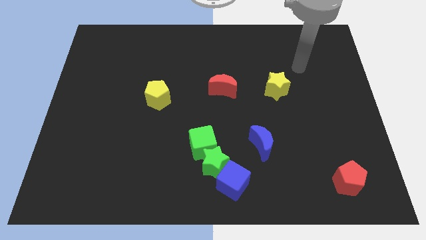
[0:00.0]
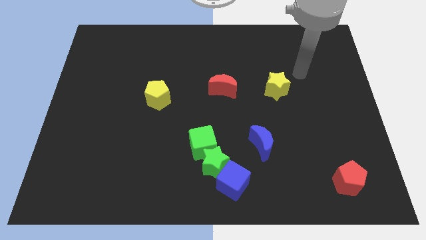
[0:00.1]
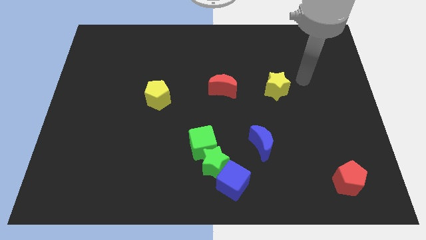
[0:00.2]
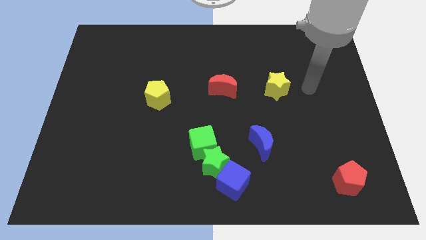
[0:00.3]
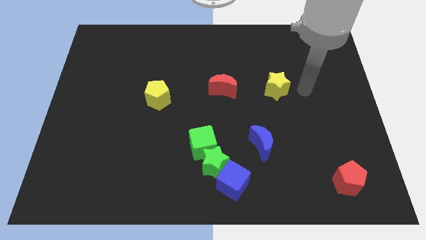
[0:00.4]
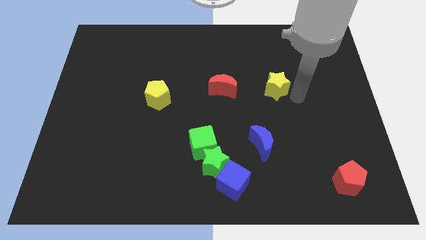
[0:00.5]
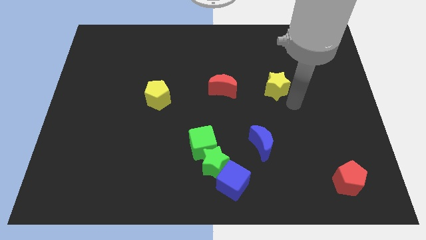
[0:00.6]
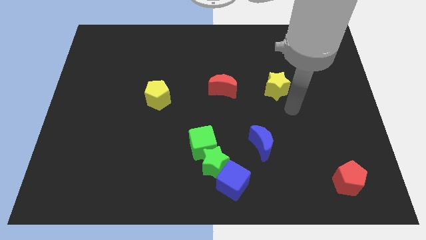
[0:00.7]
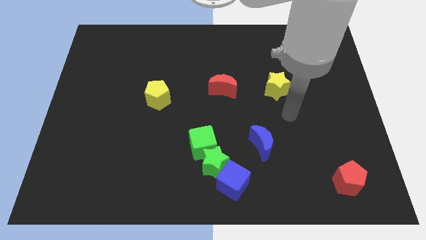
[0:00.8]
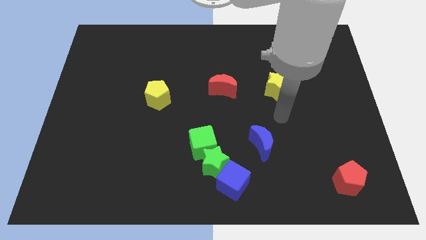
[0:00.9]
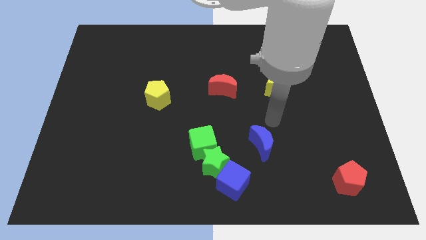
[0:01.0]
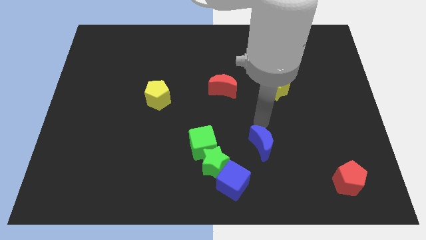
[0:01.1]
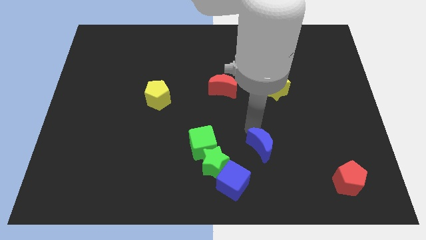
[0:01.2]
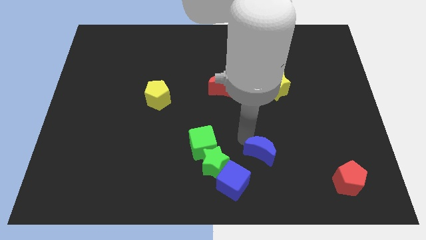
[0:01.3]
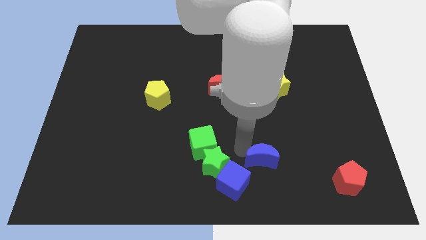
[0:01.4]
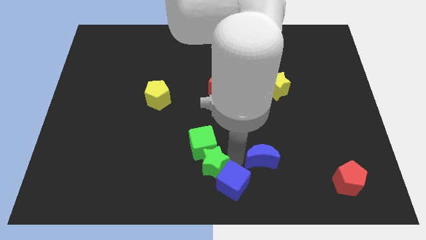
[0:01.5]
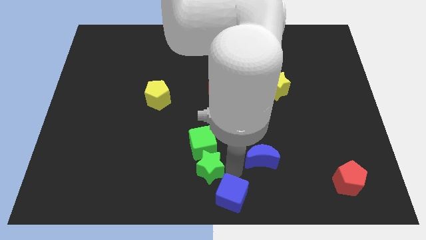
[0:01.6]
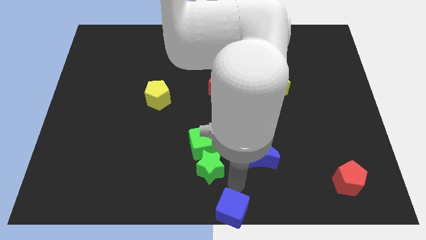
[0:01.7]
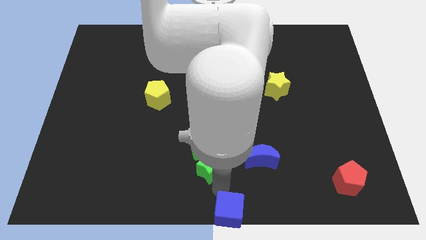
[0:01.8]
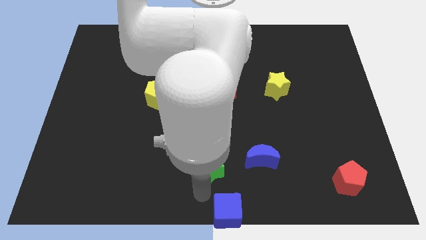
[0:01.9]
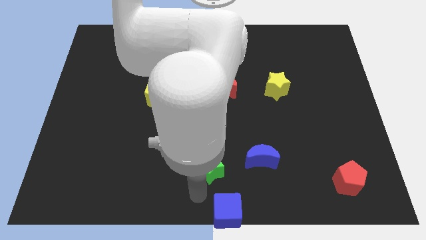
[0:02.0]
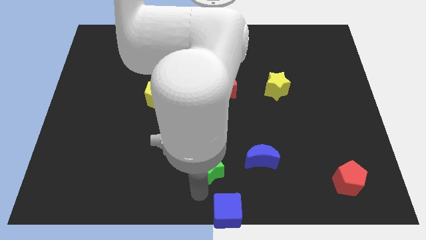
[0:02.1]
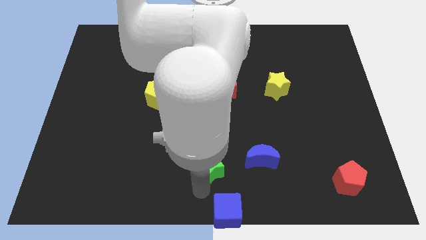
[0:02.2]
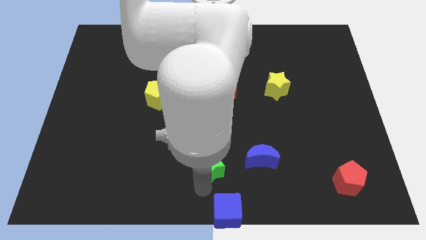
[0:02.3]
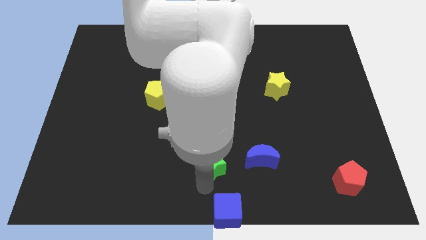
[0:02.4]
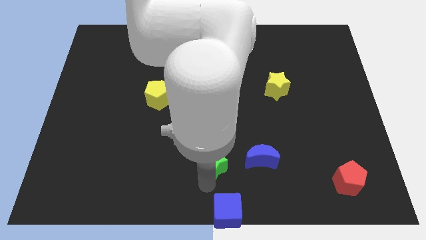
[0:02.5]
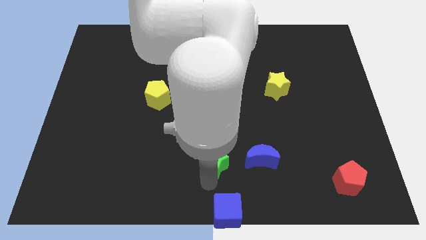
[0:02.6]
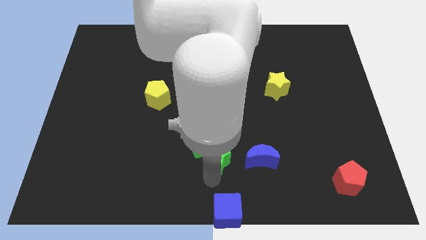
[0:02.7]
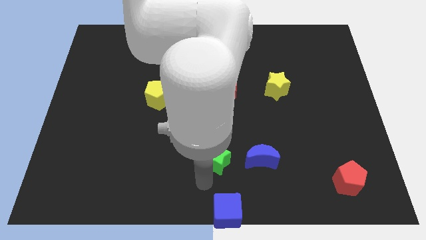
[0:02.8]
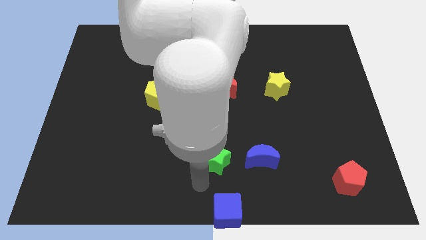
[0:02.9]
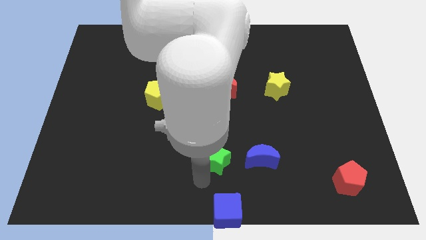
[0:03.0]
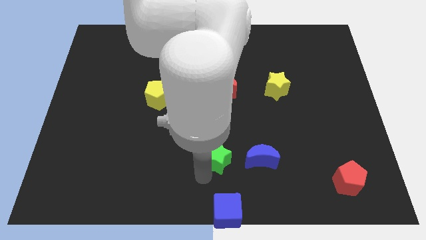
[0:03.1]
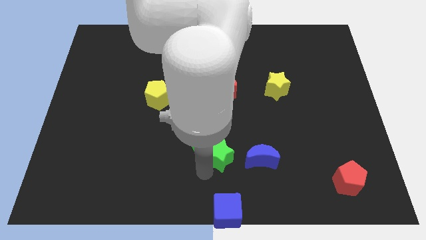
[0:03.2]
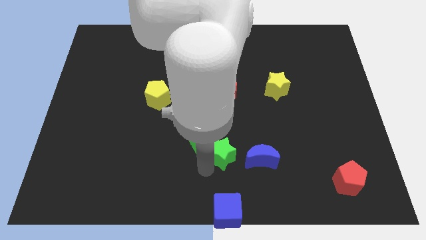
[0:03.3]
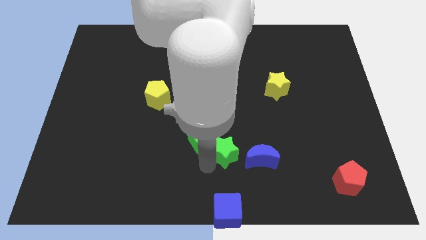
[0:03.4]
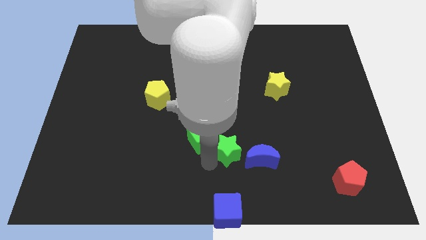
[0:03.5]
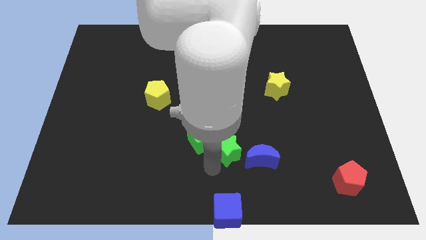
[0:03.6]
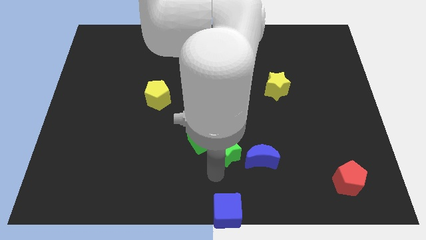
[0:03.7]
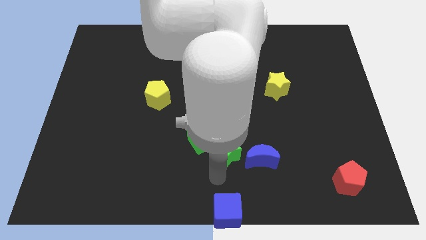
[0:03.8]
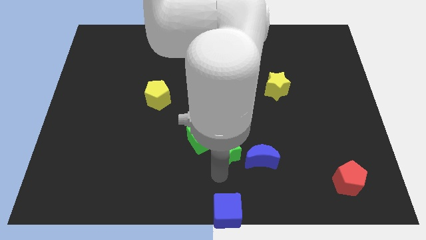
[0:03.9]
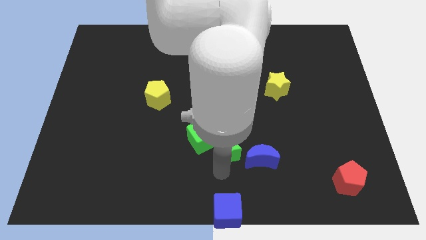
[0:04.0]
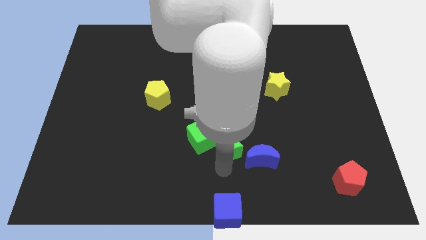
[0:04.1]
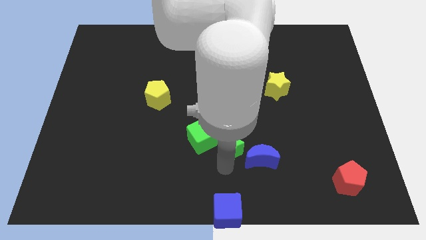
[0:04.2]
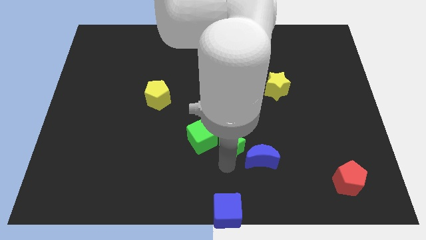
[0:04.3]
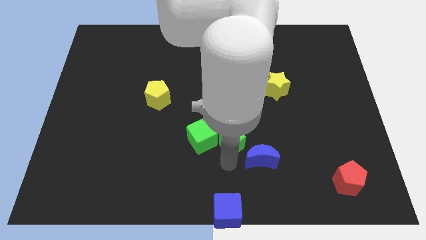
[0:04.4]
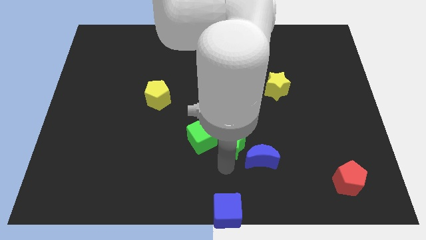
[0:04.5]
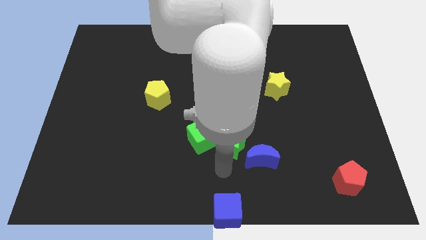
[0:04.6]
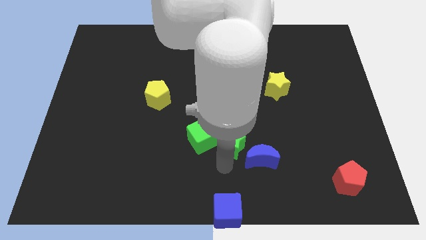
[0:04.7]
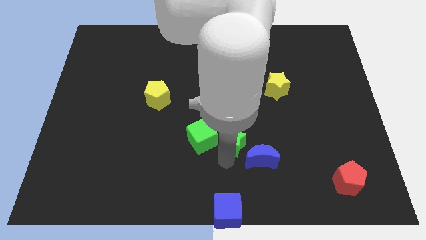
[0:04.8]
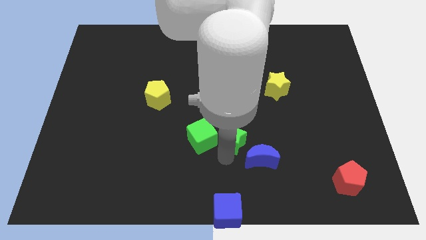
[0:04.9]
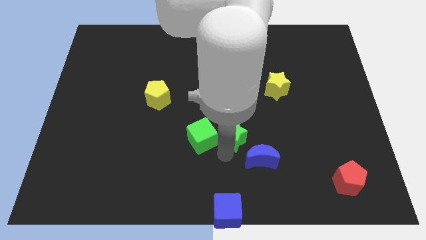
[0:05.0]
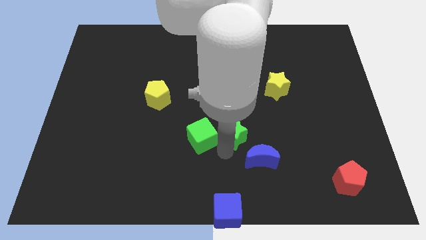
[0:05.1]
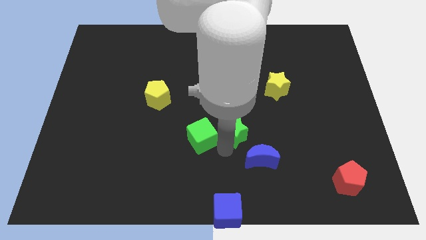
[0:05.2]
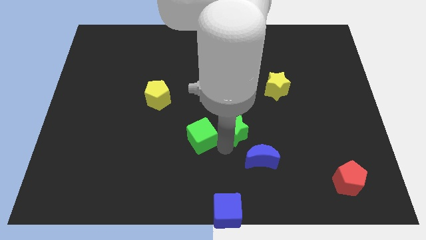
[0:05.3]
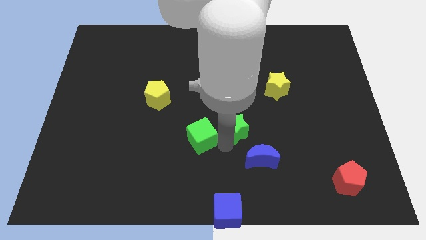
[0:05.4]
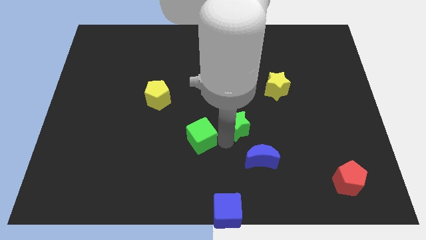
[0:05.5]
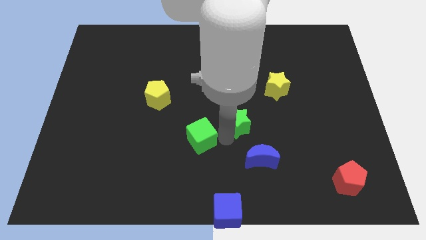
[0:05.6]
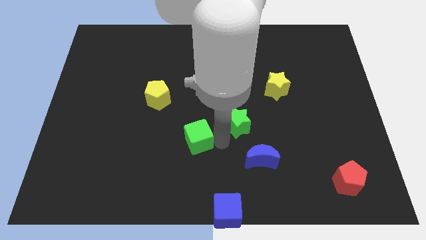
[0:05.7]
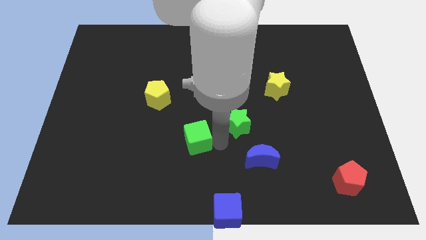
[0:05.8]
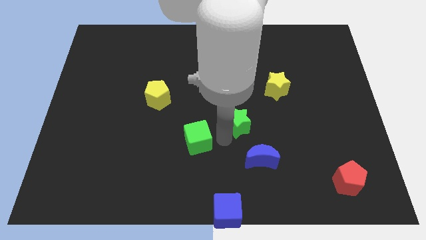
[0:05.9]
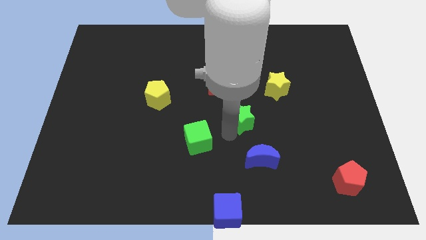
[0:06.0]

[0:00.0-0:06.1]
put the green star to the bottom left side of the yellow star

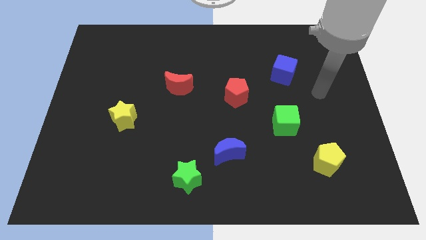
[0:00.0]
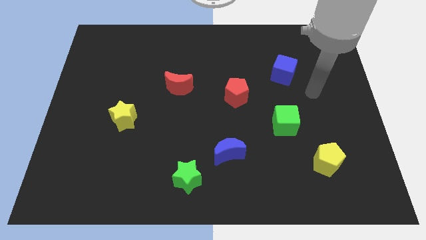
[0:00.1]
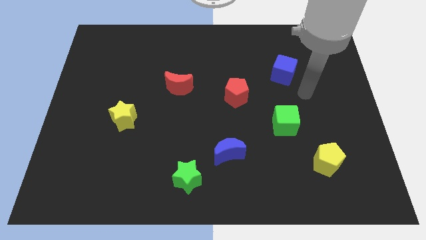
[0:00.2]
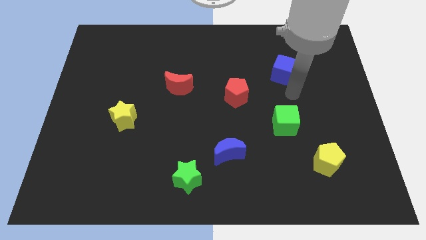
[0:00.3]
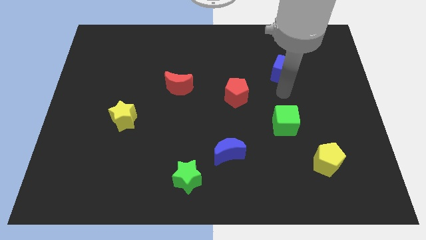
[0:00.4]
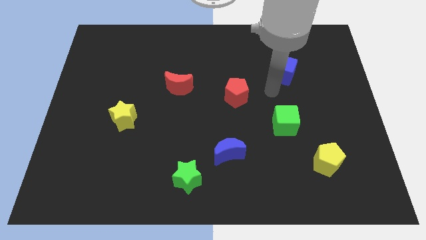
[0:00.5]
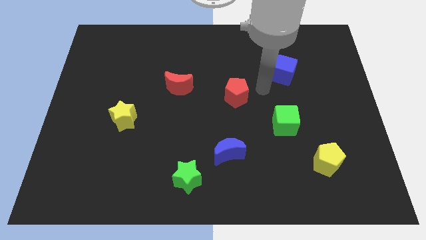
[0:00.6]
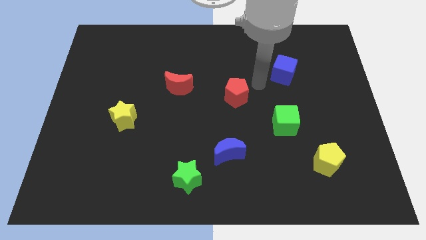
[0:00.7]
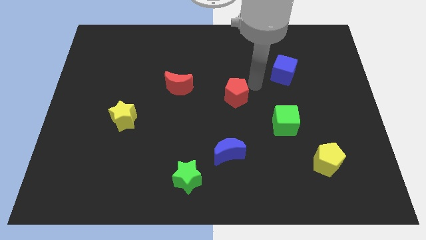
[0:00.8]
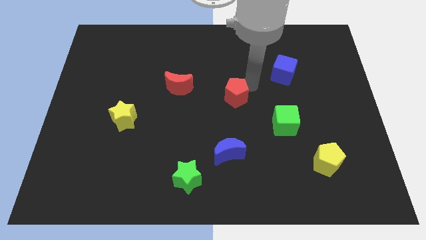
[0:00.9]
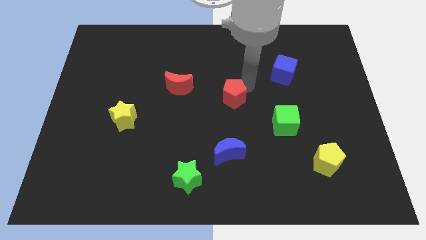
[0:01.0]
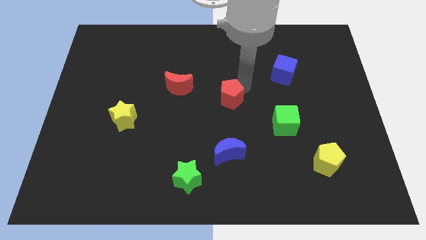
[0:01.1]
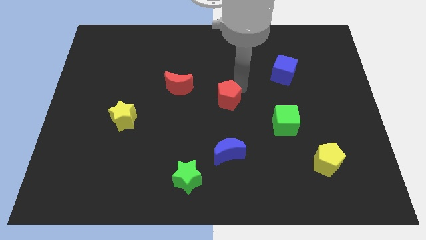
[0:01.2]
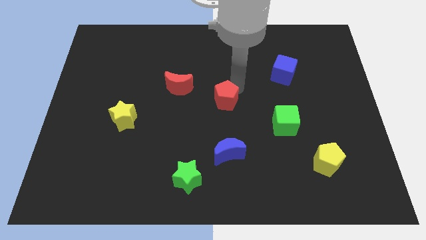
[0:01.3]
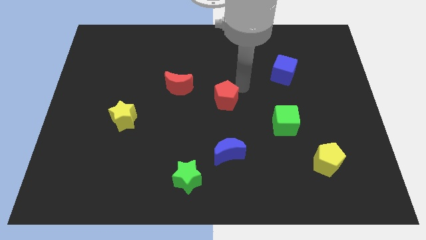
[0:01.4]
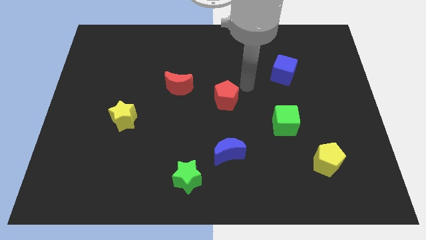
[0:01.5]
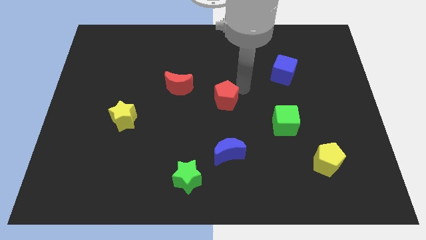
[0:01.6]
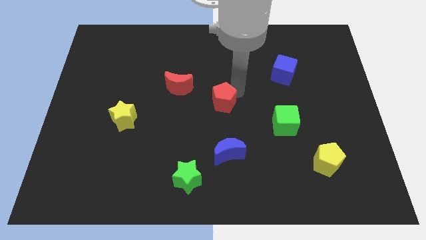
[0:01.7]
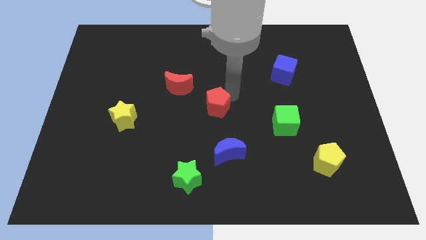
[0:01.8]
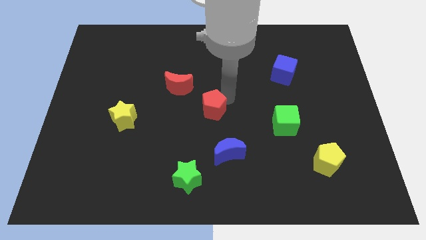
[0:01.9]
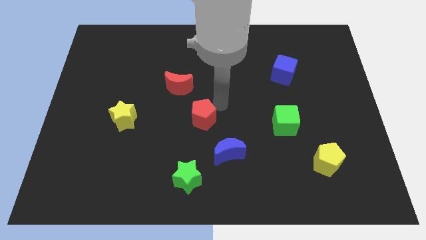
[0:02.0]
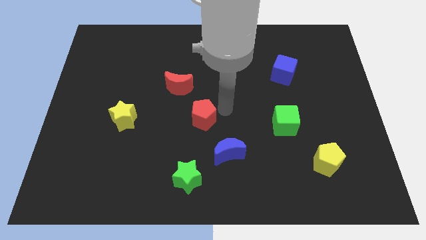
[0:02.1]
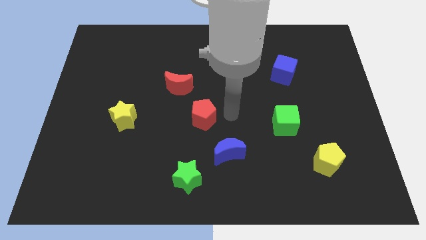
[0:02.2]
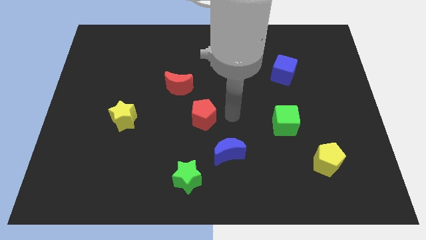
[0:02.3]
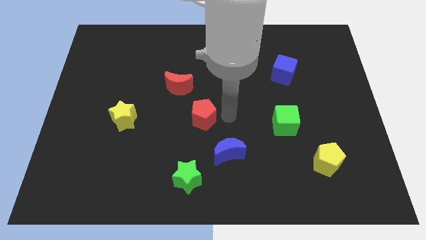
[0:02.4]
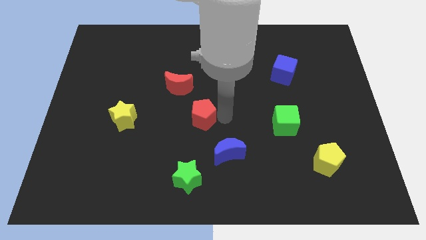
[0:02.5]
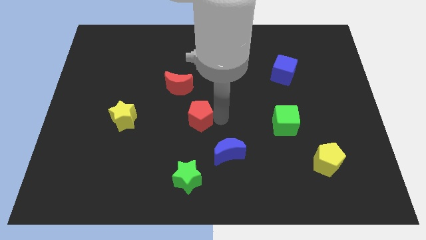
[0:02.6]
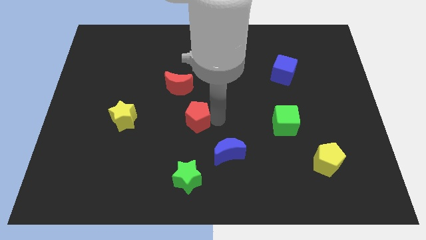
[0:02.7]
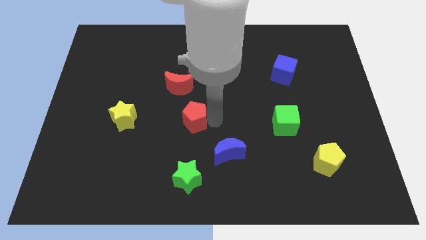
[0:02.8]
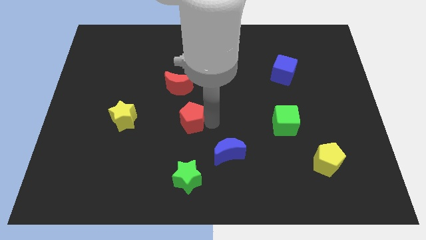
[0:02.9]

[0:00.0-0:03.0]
put the red pentagon to the right of the yellow star
